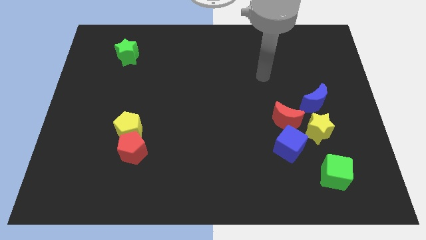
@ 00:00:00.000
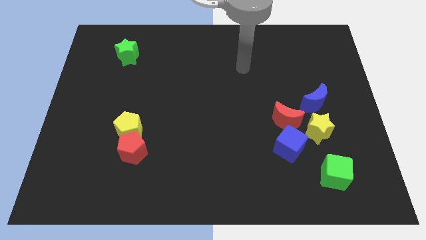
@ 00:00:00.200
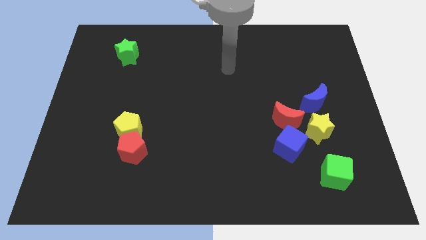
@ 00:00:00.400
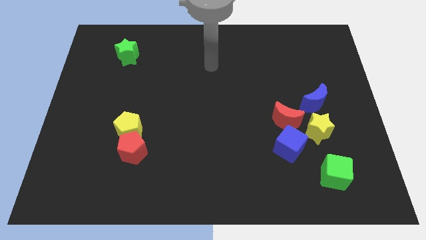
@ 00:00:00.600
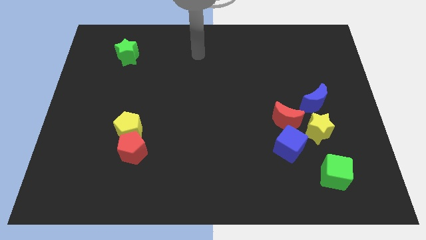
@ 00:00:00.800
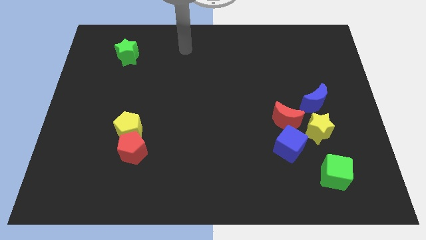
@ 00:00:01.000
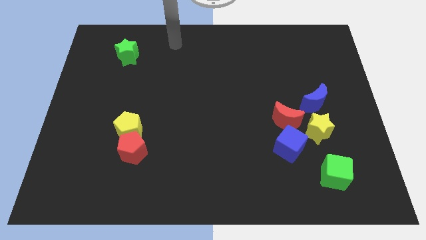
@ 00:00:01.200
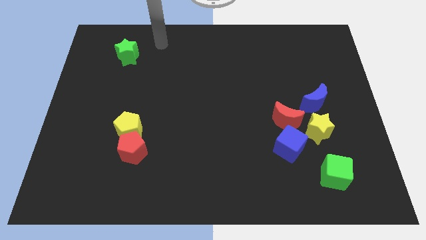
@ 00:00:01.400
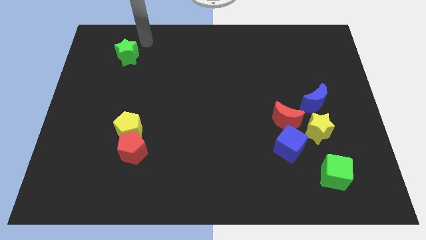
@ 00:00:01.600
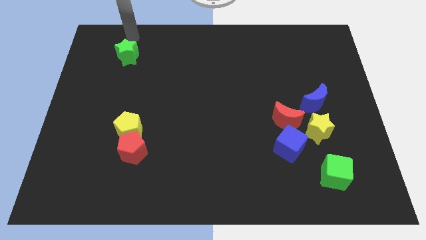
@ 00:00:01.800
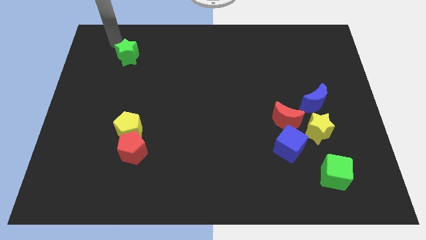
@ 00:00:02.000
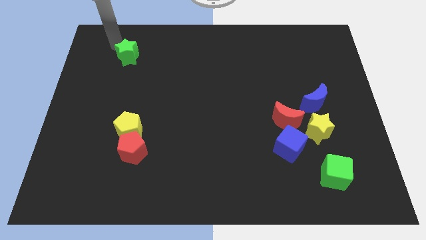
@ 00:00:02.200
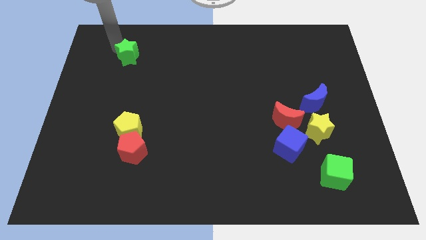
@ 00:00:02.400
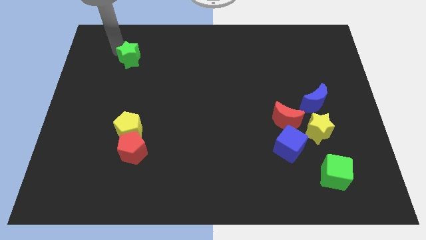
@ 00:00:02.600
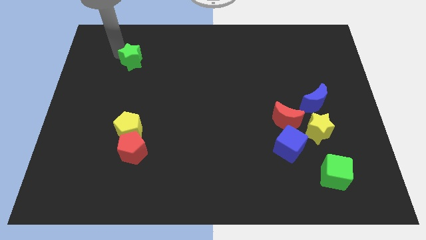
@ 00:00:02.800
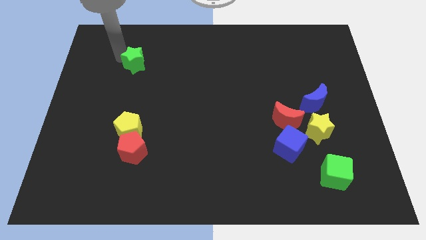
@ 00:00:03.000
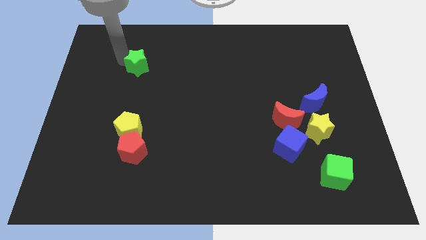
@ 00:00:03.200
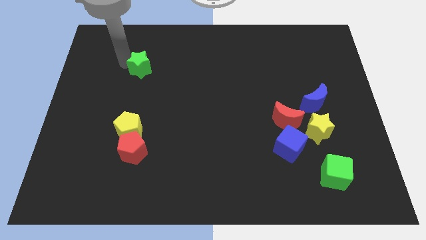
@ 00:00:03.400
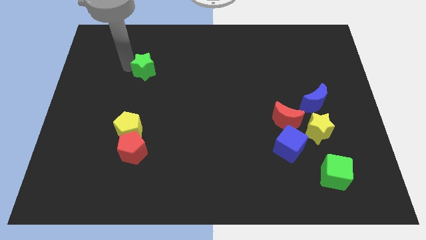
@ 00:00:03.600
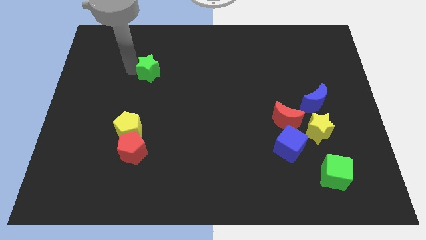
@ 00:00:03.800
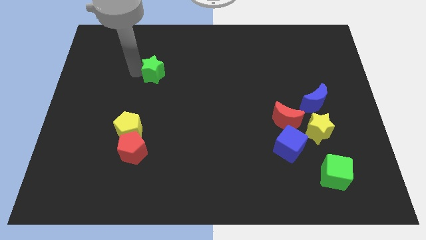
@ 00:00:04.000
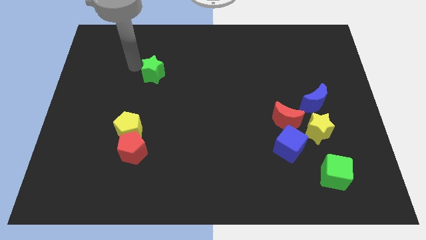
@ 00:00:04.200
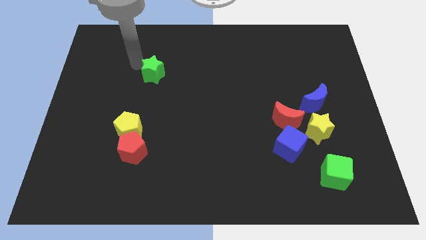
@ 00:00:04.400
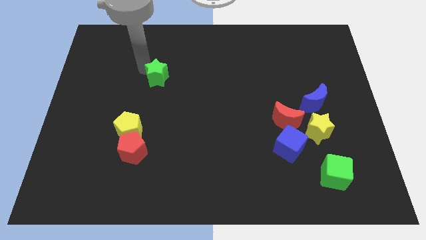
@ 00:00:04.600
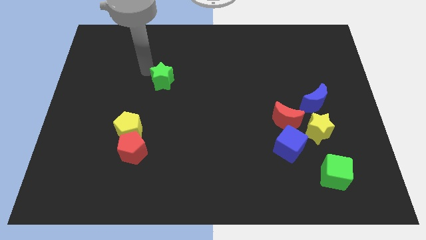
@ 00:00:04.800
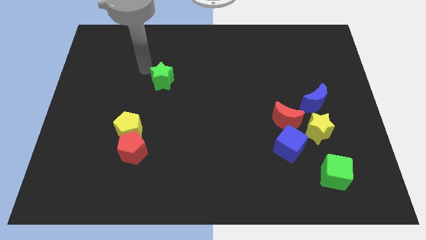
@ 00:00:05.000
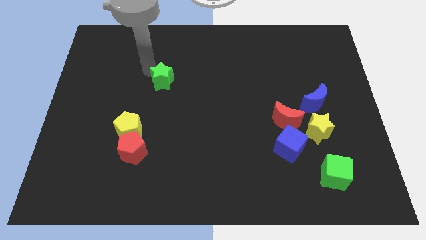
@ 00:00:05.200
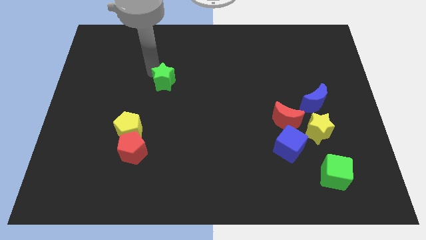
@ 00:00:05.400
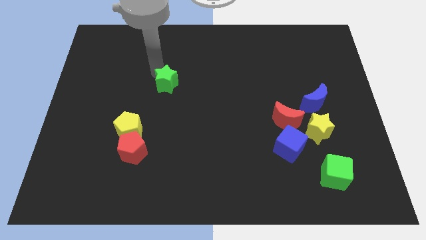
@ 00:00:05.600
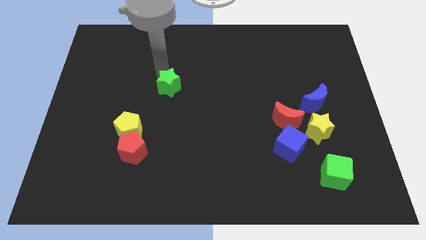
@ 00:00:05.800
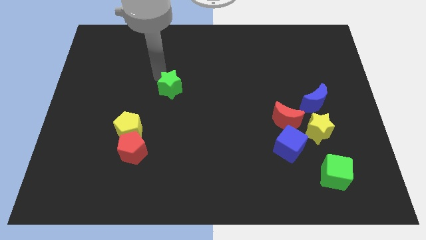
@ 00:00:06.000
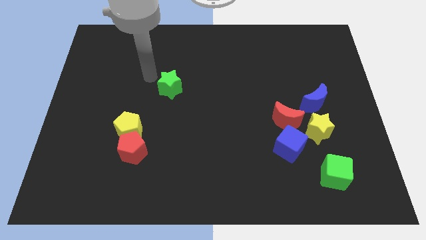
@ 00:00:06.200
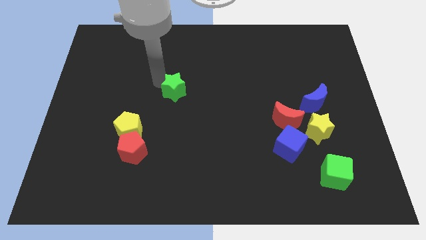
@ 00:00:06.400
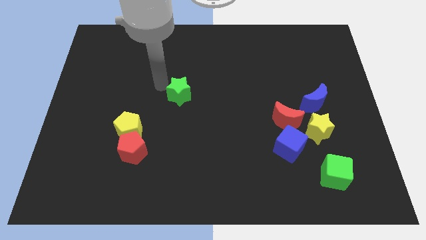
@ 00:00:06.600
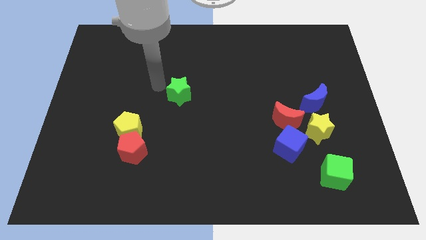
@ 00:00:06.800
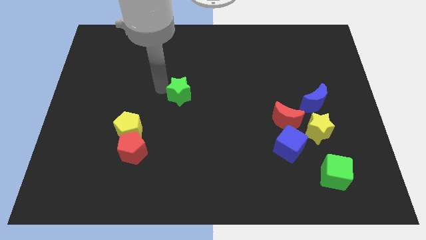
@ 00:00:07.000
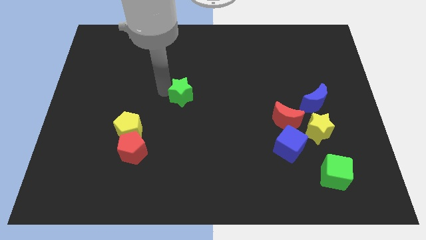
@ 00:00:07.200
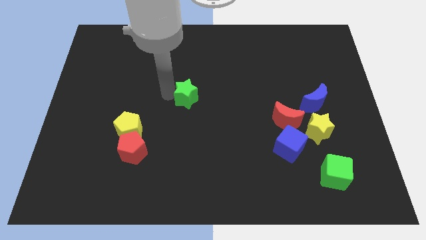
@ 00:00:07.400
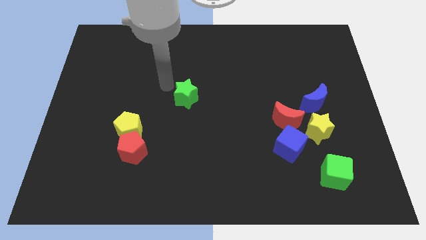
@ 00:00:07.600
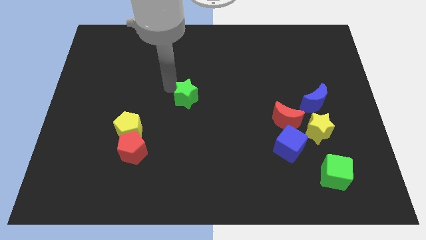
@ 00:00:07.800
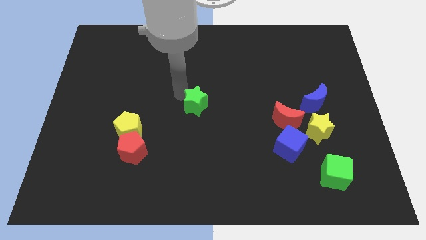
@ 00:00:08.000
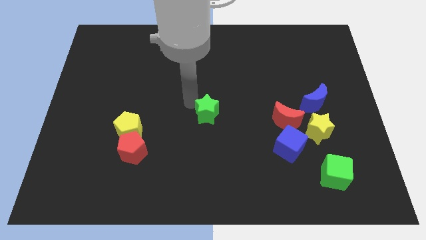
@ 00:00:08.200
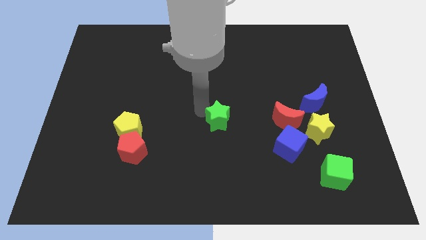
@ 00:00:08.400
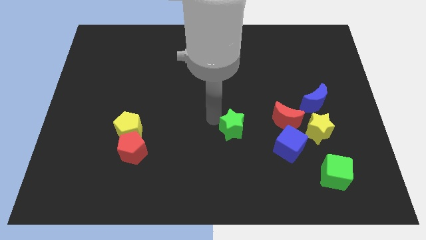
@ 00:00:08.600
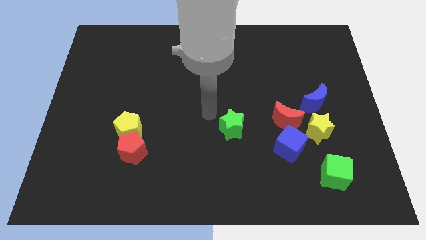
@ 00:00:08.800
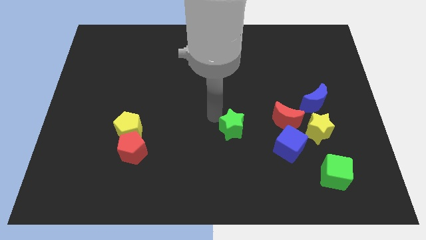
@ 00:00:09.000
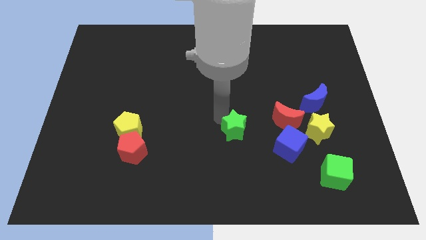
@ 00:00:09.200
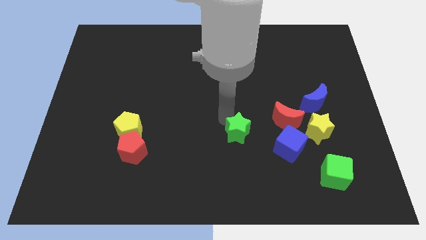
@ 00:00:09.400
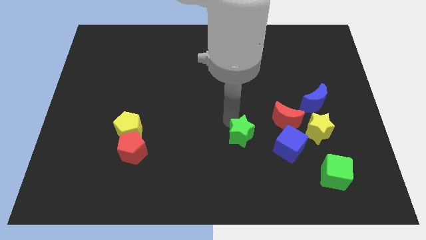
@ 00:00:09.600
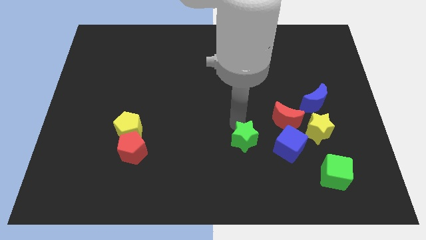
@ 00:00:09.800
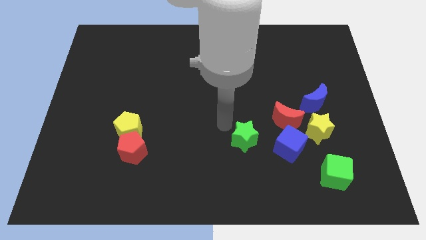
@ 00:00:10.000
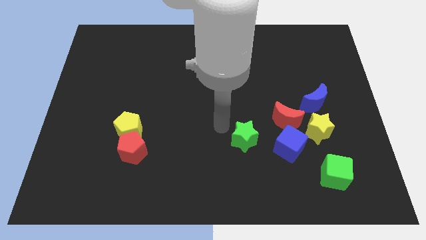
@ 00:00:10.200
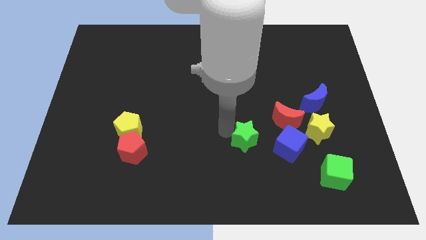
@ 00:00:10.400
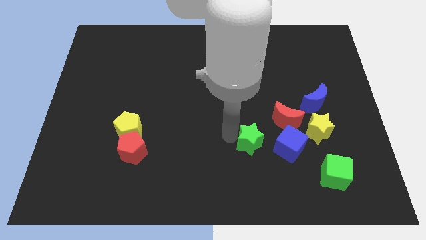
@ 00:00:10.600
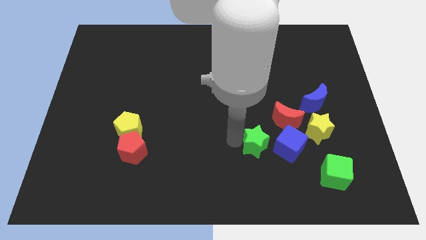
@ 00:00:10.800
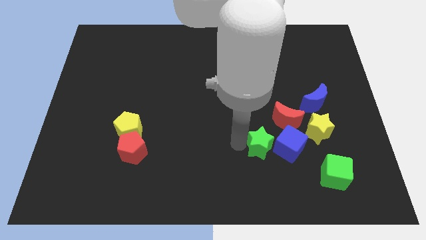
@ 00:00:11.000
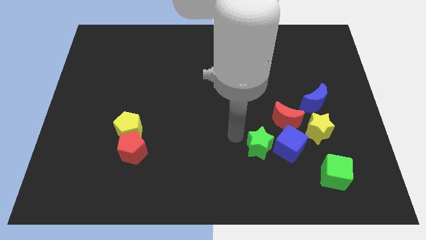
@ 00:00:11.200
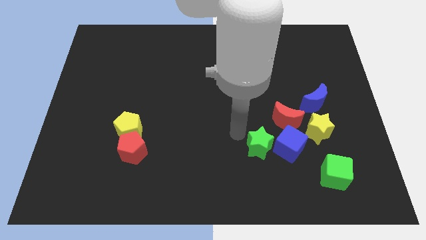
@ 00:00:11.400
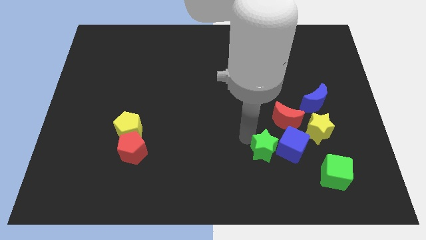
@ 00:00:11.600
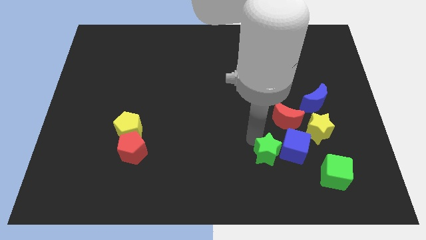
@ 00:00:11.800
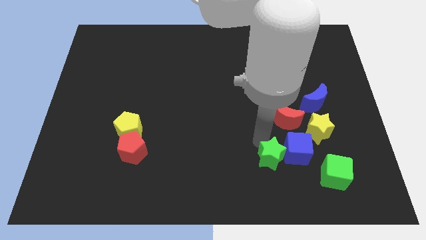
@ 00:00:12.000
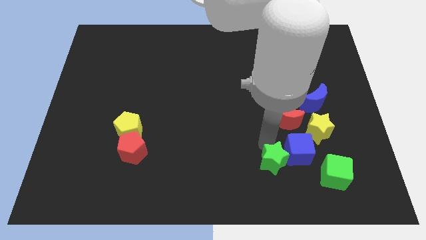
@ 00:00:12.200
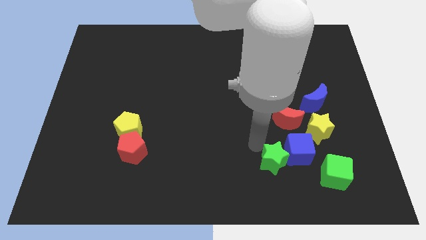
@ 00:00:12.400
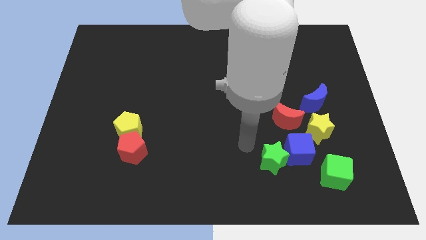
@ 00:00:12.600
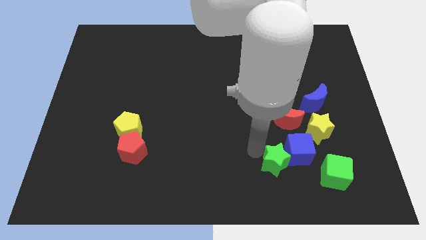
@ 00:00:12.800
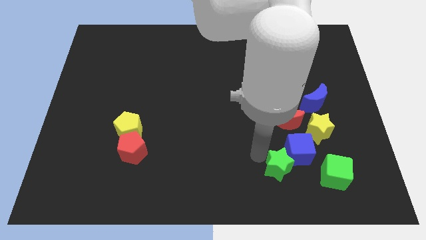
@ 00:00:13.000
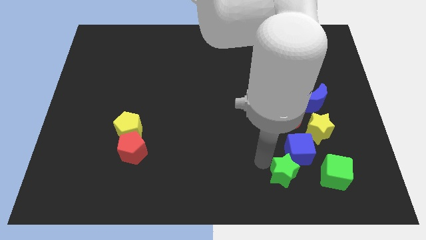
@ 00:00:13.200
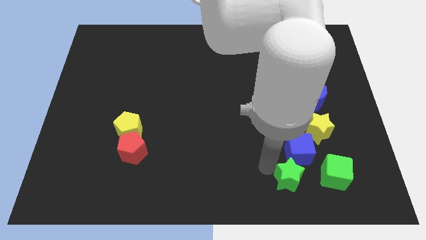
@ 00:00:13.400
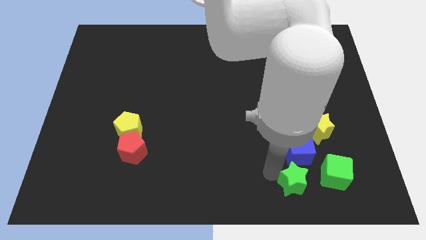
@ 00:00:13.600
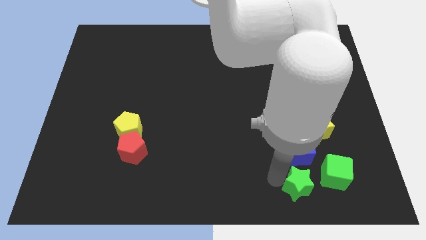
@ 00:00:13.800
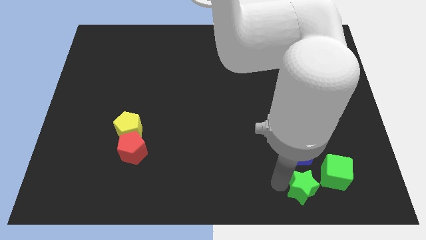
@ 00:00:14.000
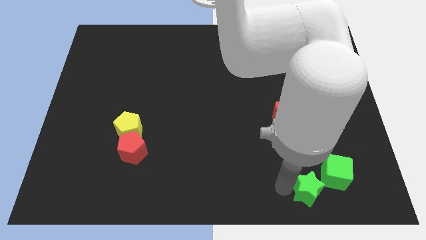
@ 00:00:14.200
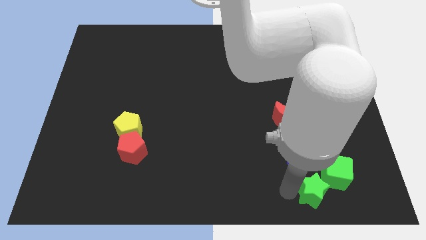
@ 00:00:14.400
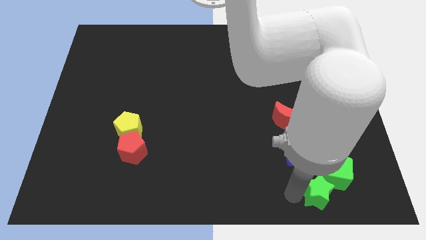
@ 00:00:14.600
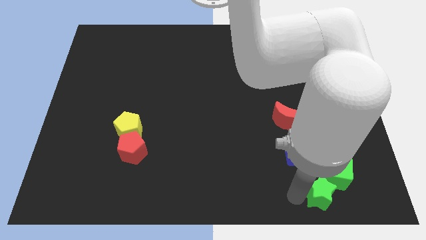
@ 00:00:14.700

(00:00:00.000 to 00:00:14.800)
push the green star close to the green cube

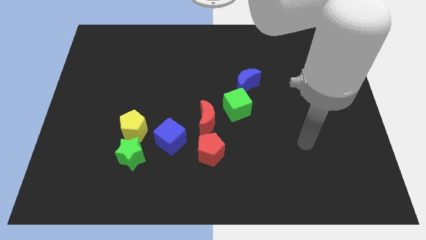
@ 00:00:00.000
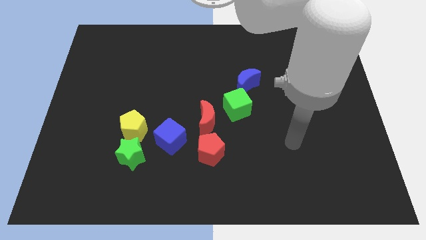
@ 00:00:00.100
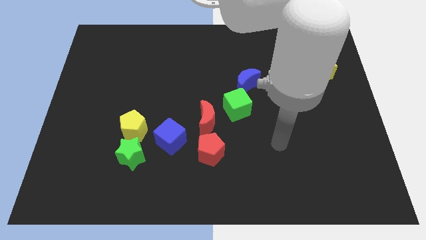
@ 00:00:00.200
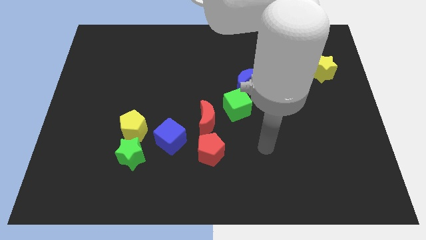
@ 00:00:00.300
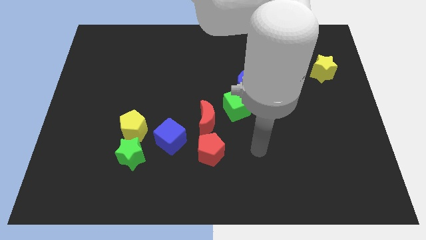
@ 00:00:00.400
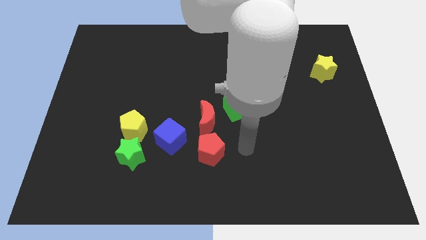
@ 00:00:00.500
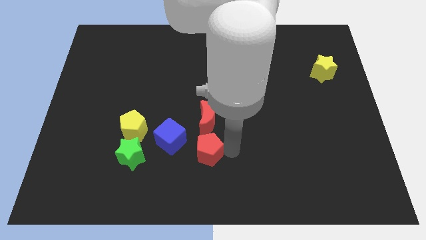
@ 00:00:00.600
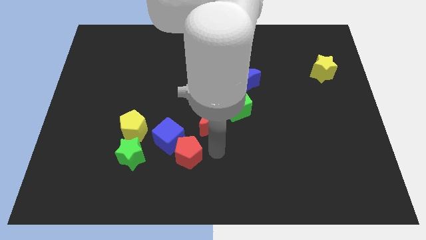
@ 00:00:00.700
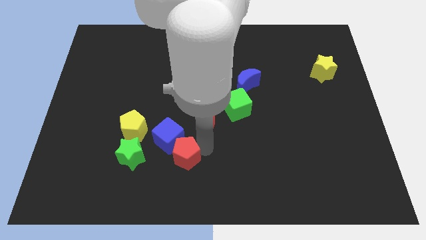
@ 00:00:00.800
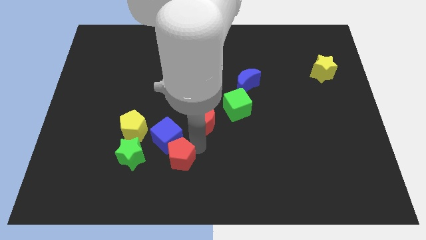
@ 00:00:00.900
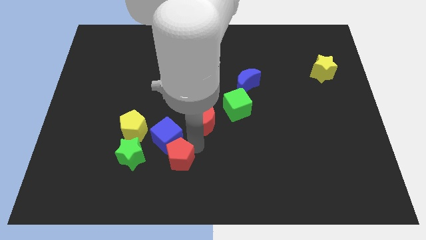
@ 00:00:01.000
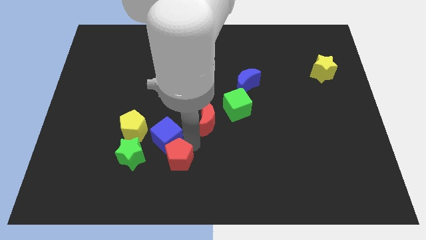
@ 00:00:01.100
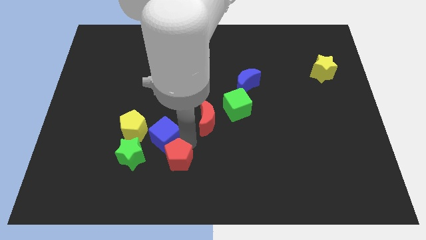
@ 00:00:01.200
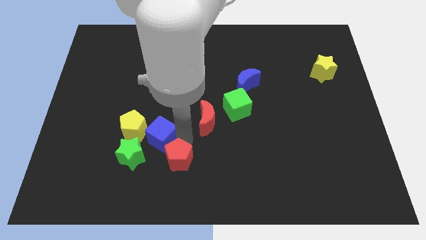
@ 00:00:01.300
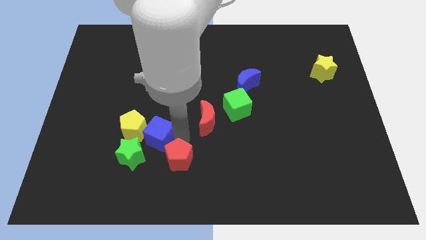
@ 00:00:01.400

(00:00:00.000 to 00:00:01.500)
put the blue cube next to the yellow pentagon
